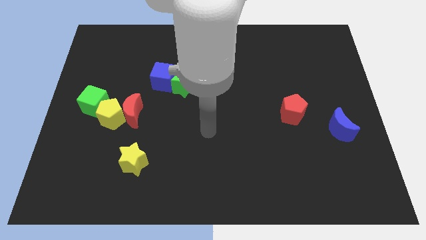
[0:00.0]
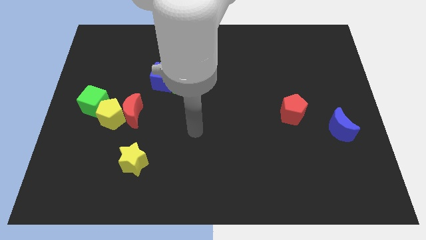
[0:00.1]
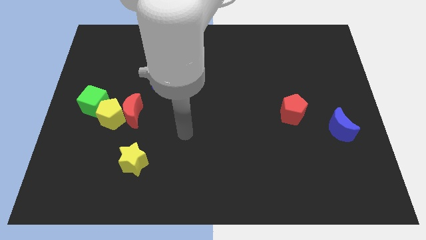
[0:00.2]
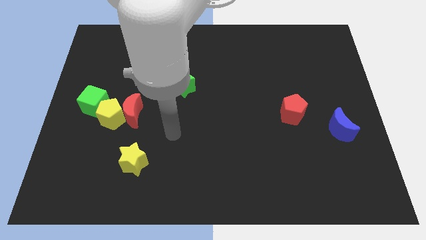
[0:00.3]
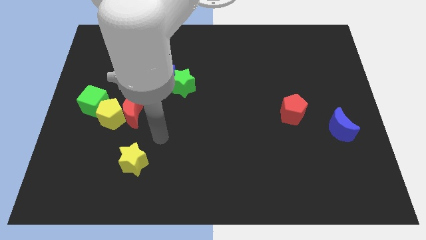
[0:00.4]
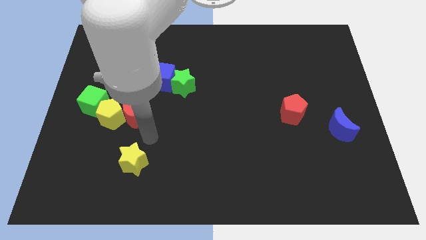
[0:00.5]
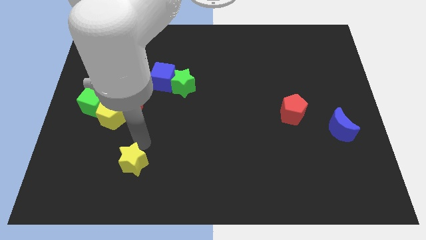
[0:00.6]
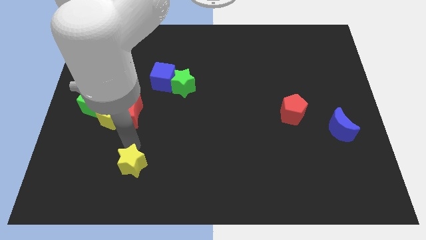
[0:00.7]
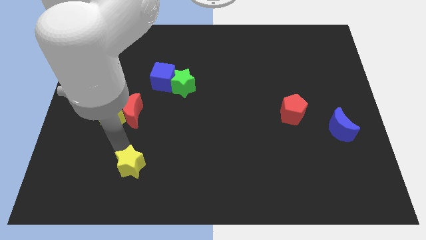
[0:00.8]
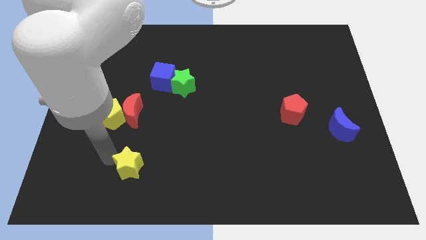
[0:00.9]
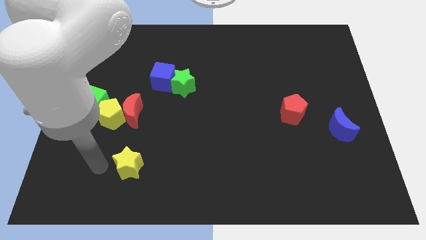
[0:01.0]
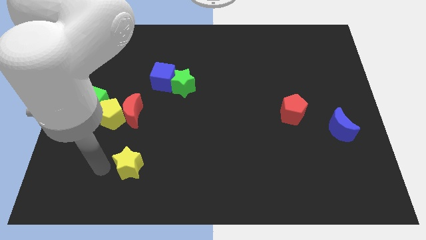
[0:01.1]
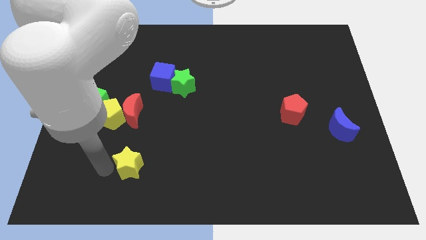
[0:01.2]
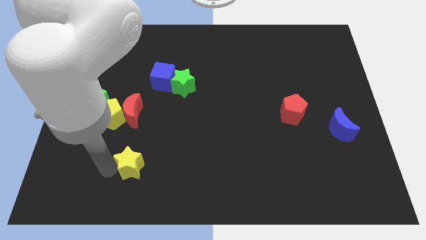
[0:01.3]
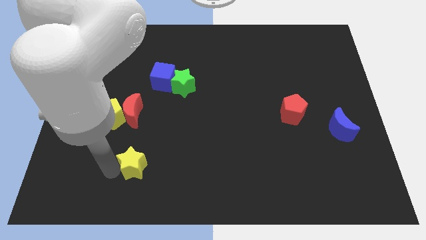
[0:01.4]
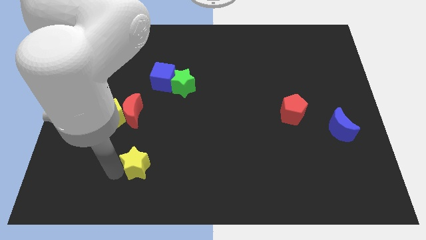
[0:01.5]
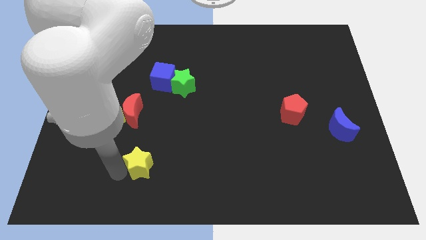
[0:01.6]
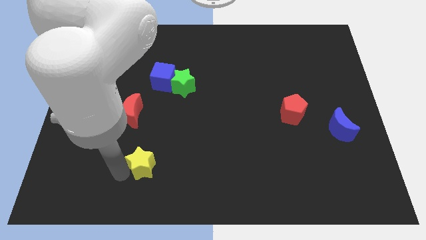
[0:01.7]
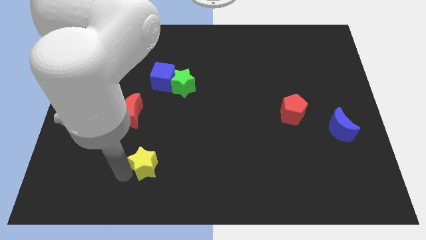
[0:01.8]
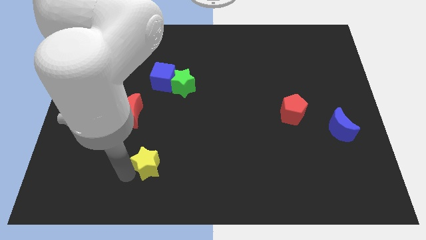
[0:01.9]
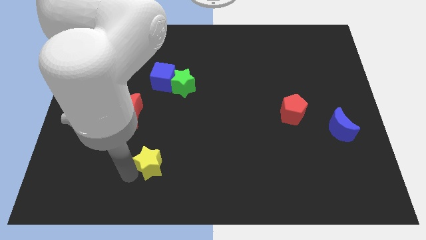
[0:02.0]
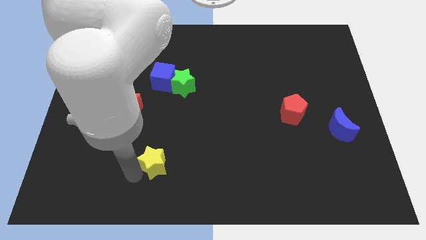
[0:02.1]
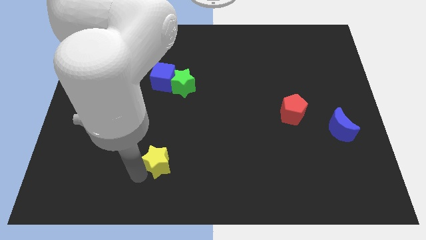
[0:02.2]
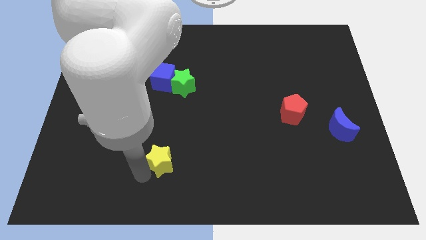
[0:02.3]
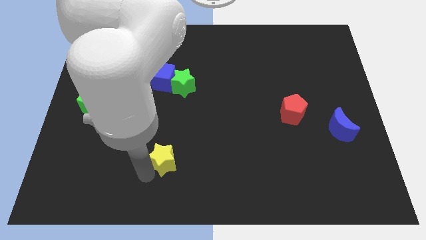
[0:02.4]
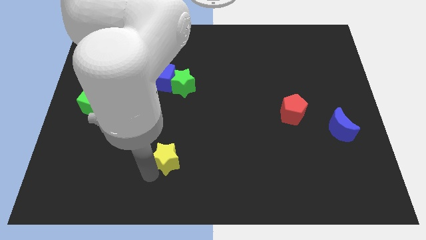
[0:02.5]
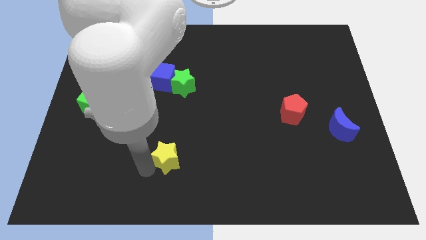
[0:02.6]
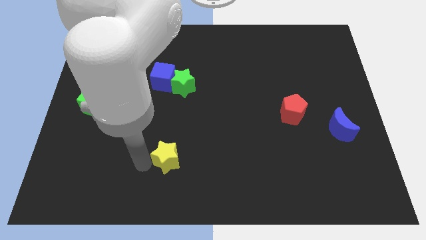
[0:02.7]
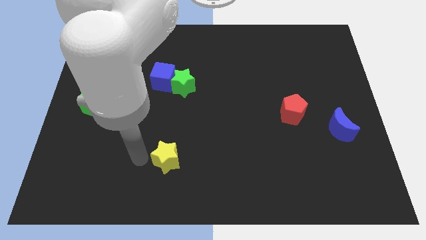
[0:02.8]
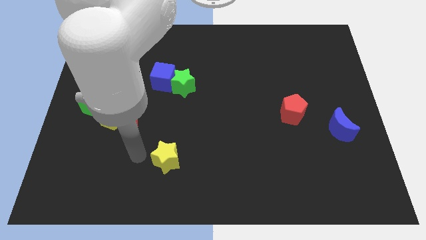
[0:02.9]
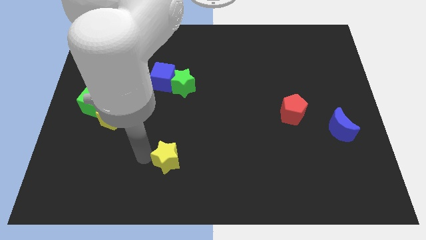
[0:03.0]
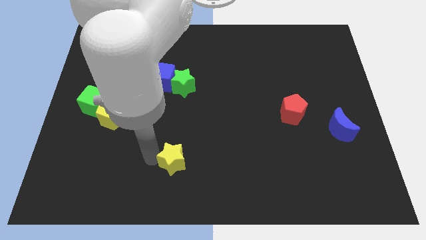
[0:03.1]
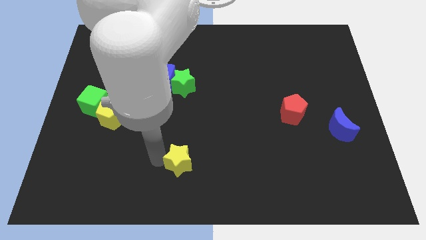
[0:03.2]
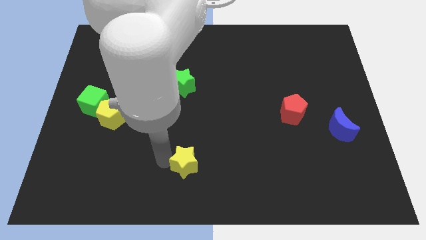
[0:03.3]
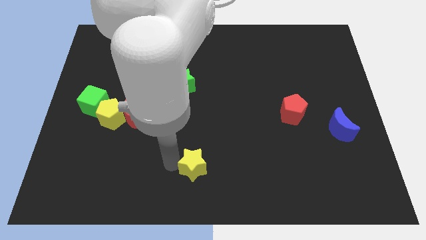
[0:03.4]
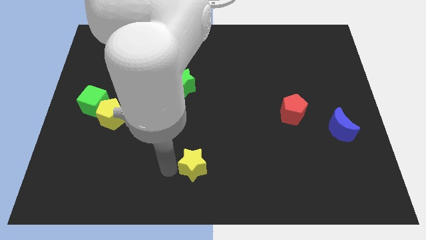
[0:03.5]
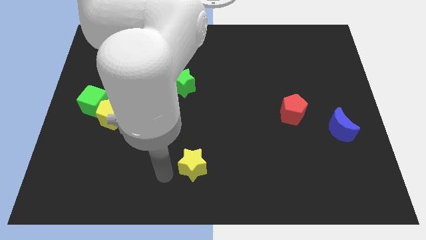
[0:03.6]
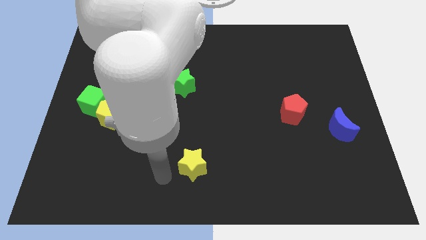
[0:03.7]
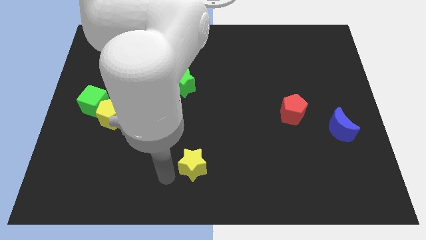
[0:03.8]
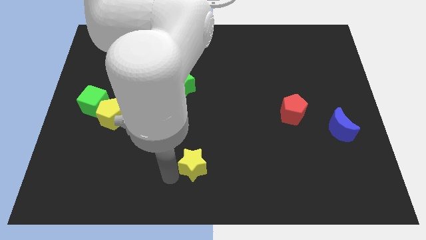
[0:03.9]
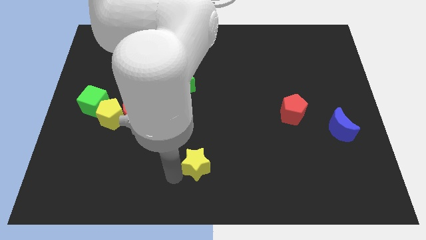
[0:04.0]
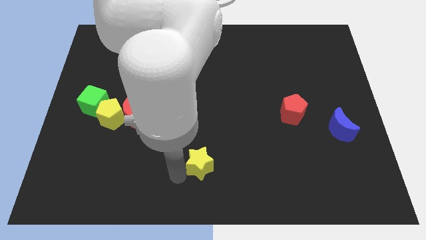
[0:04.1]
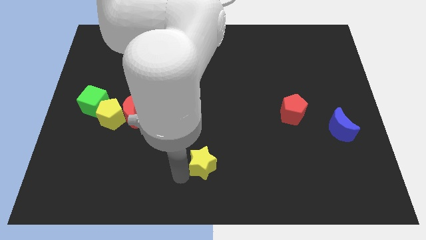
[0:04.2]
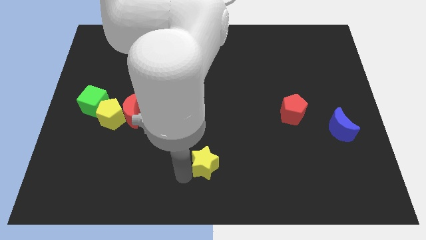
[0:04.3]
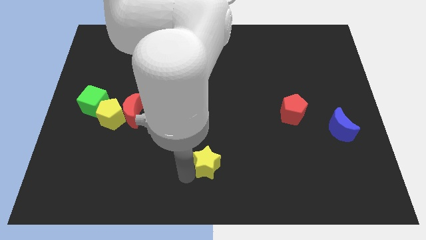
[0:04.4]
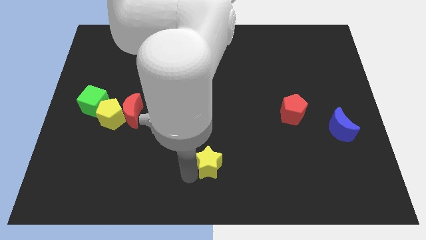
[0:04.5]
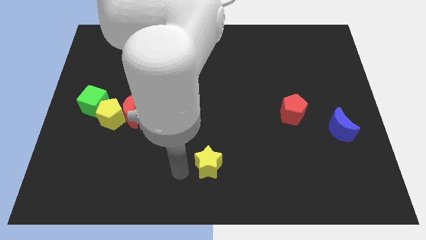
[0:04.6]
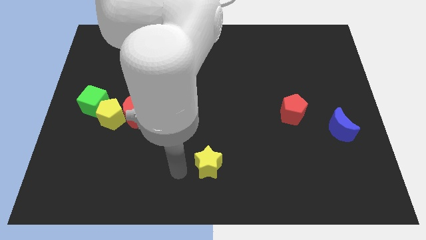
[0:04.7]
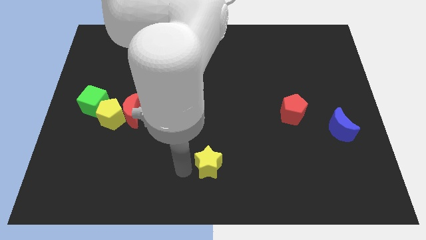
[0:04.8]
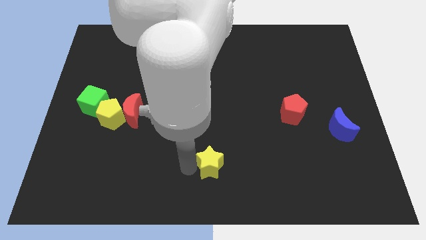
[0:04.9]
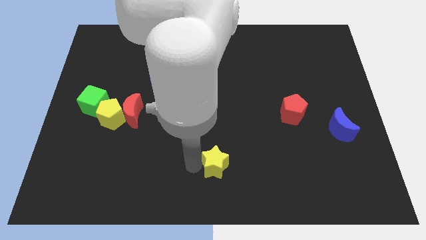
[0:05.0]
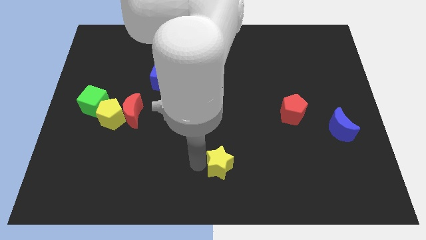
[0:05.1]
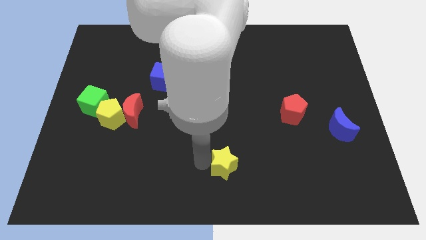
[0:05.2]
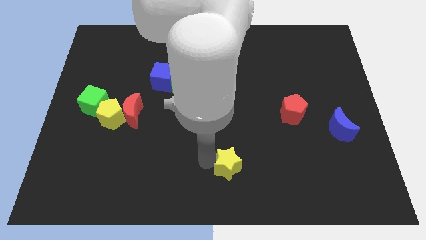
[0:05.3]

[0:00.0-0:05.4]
slide the yellow star to the right

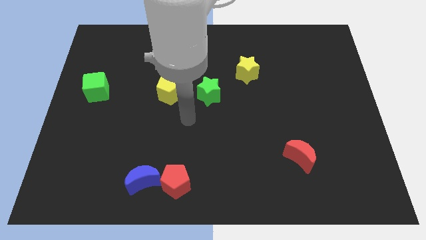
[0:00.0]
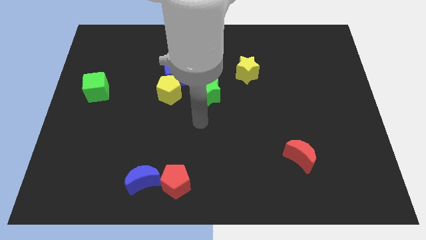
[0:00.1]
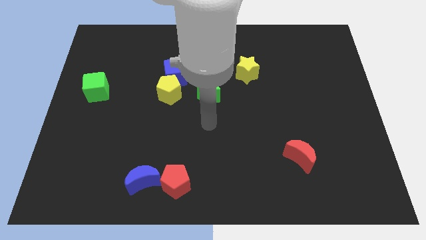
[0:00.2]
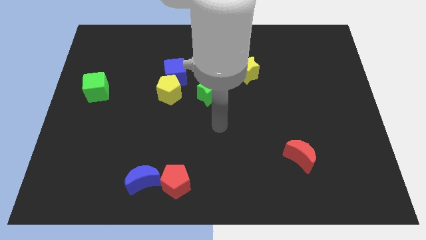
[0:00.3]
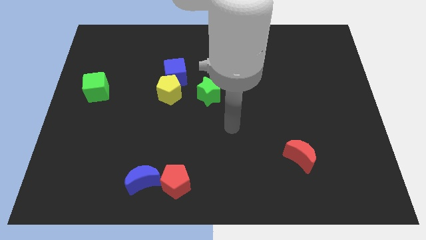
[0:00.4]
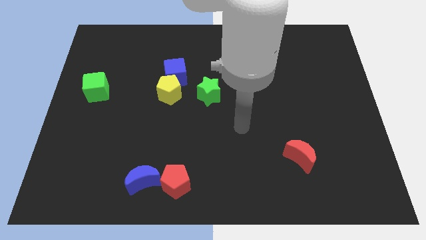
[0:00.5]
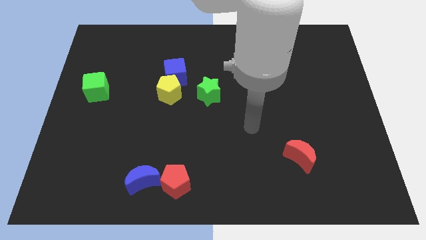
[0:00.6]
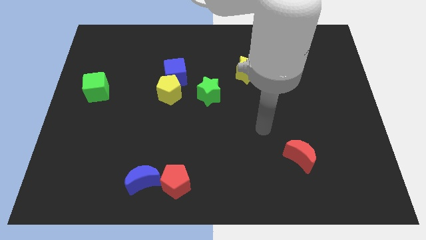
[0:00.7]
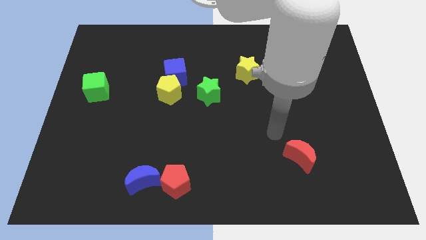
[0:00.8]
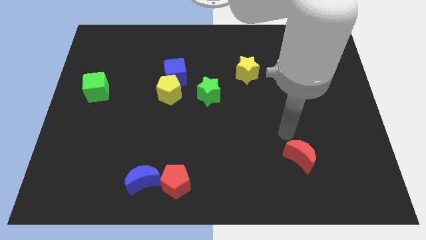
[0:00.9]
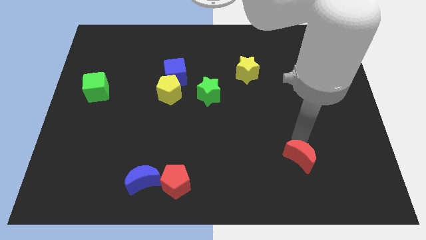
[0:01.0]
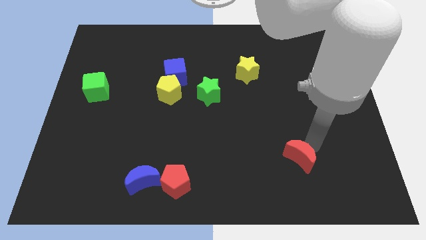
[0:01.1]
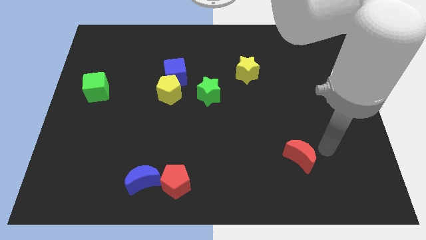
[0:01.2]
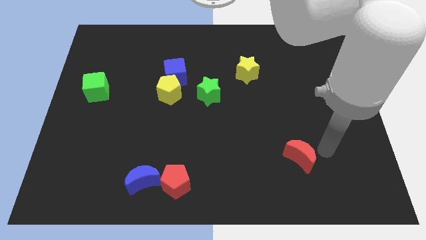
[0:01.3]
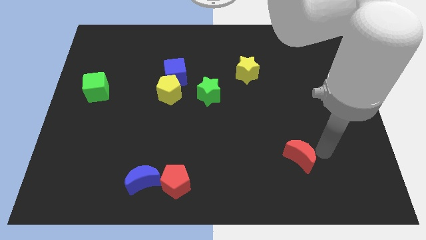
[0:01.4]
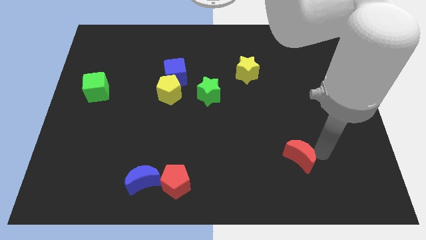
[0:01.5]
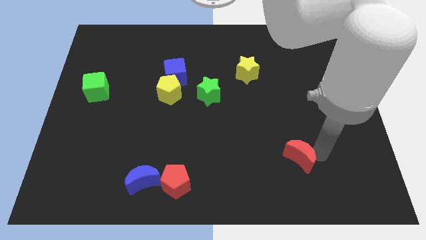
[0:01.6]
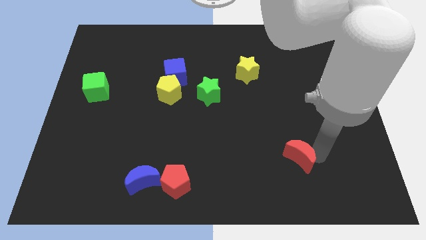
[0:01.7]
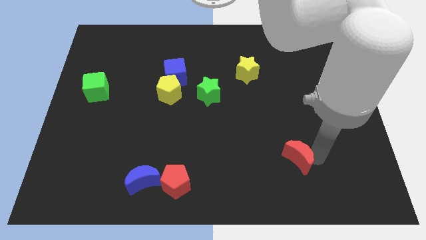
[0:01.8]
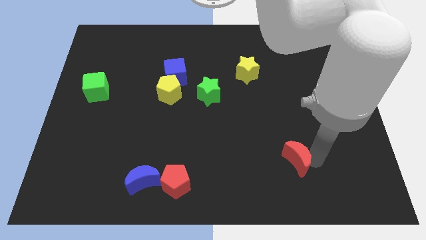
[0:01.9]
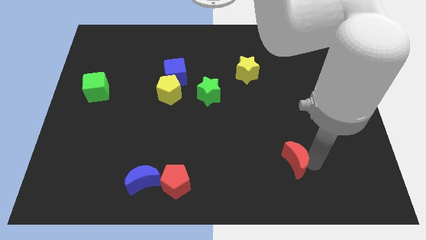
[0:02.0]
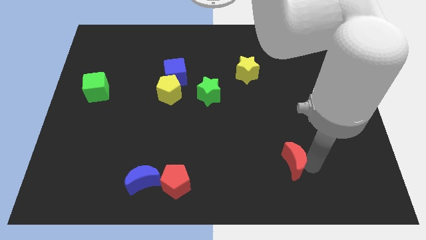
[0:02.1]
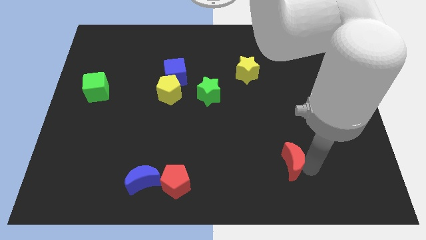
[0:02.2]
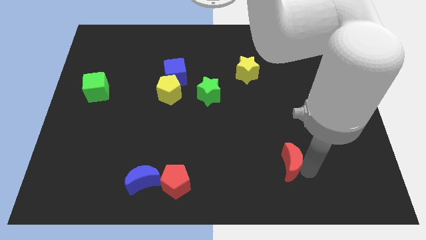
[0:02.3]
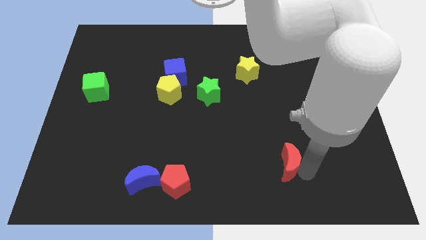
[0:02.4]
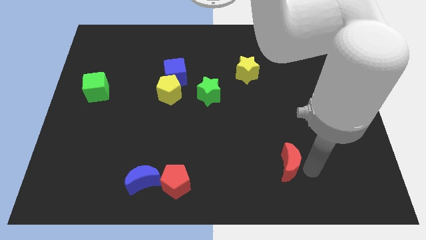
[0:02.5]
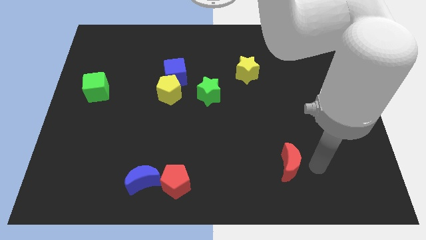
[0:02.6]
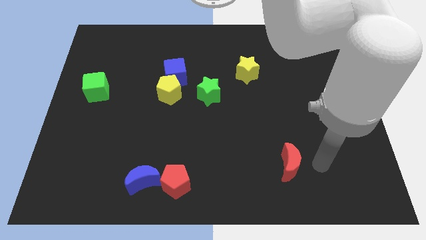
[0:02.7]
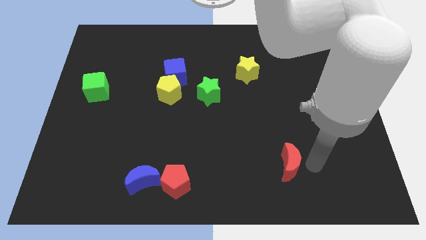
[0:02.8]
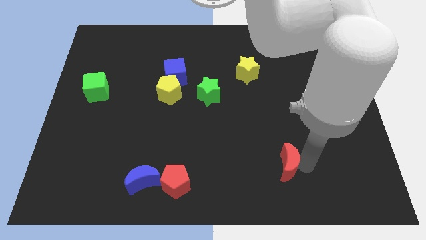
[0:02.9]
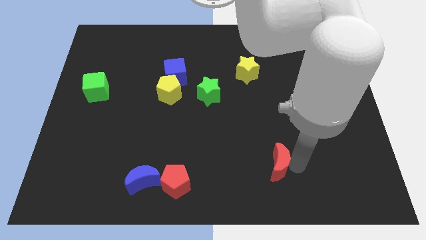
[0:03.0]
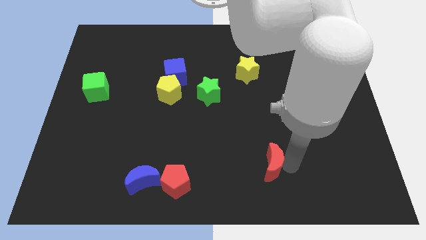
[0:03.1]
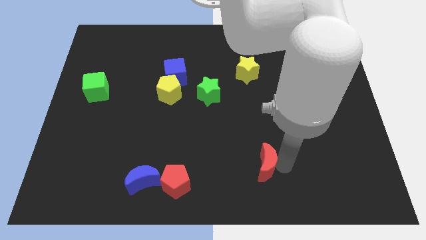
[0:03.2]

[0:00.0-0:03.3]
move the red moon slightly to the left
